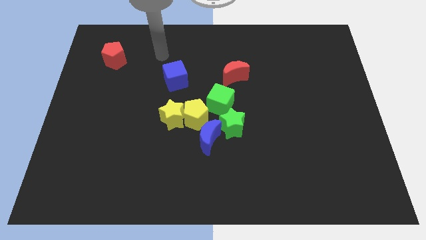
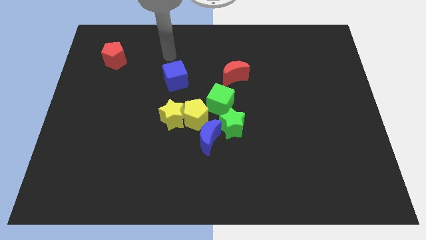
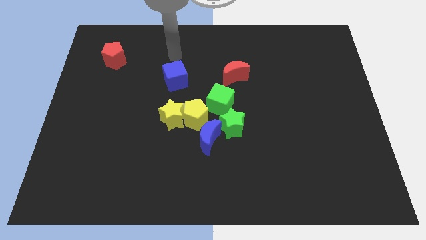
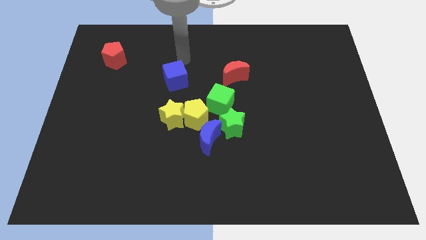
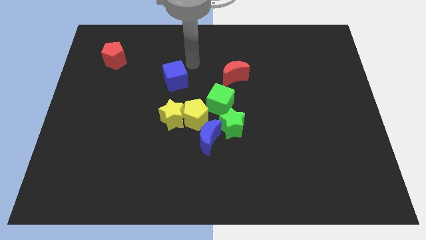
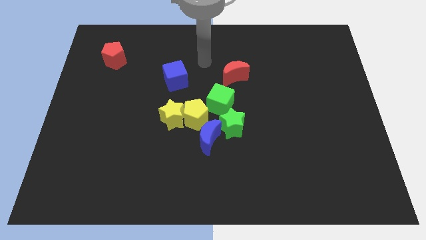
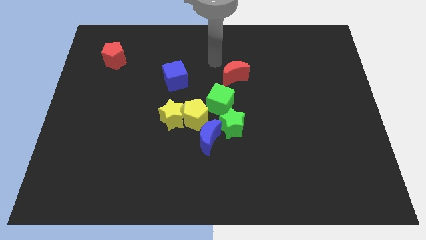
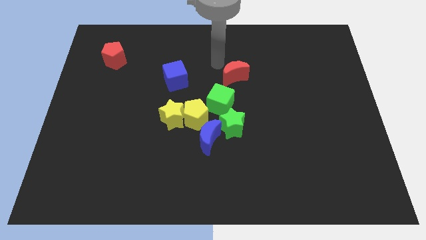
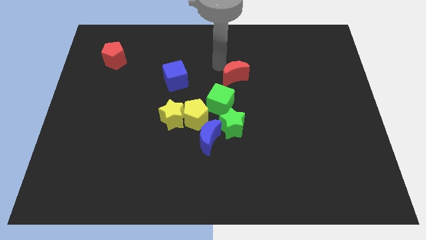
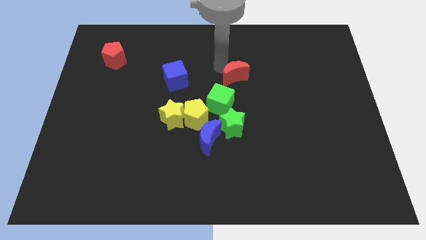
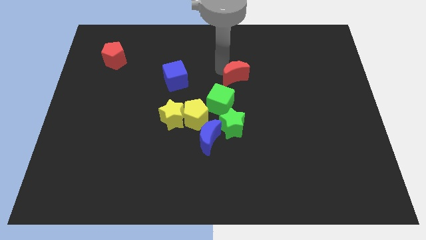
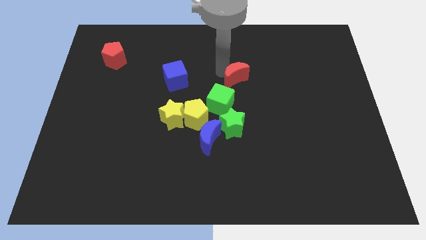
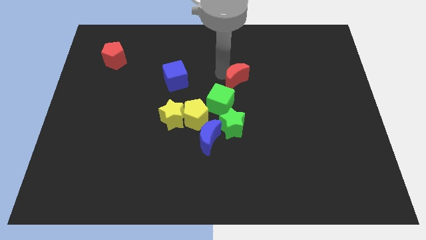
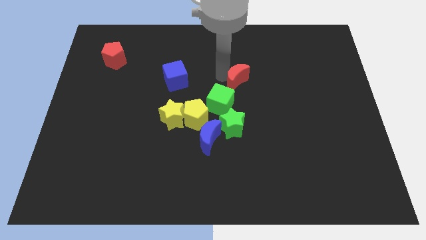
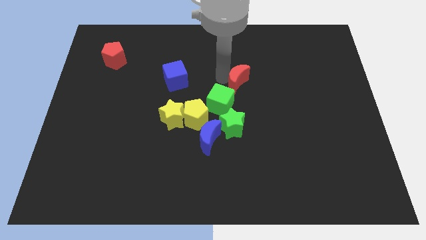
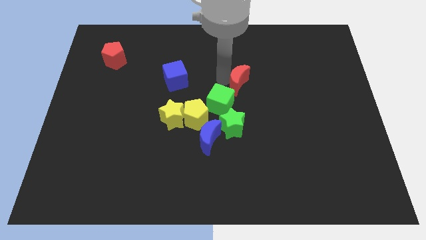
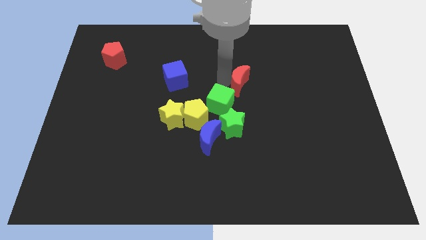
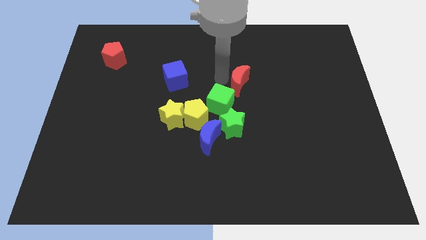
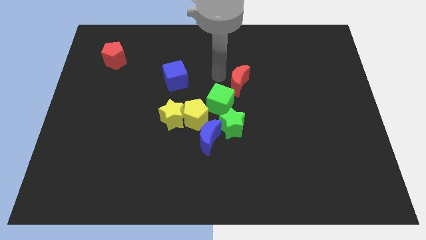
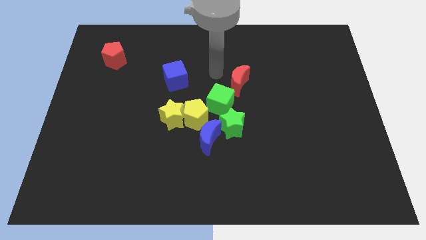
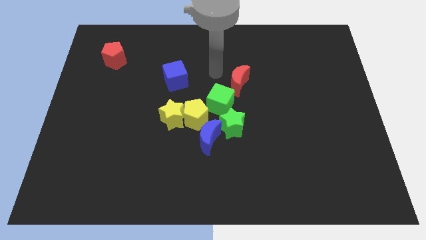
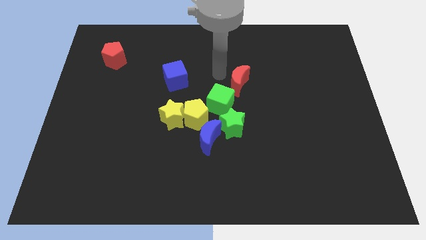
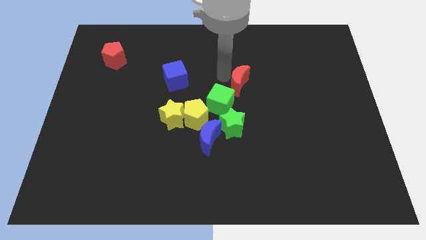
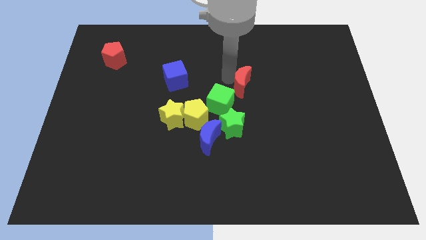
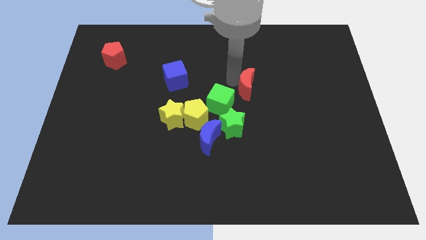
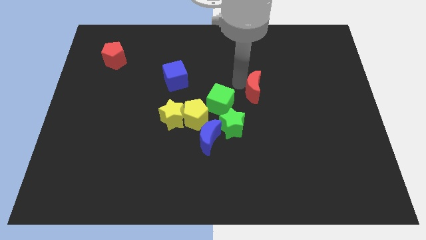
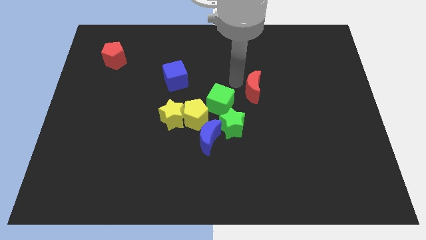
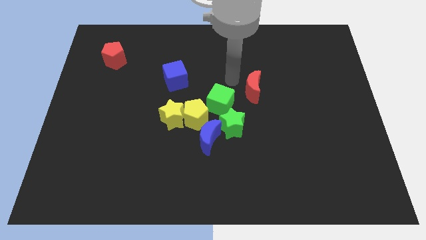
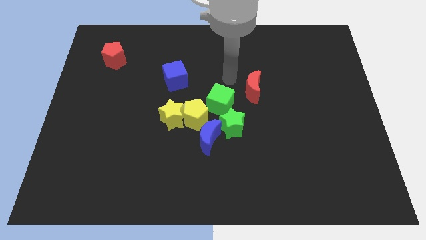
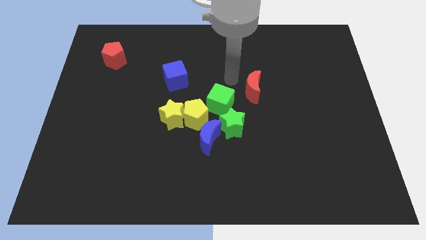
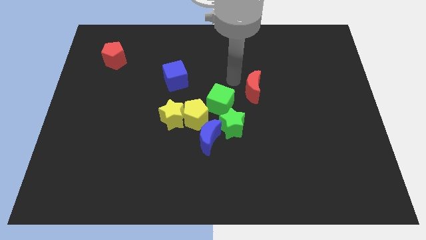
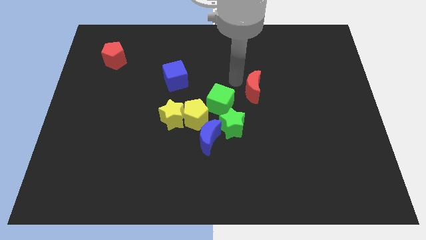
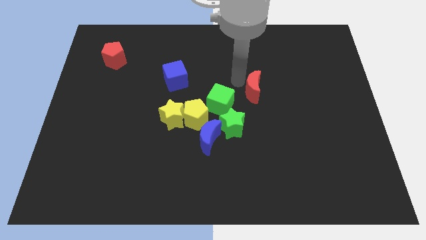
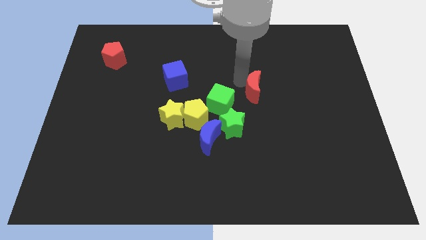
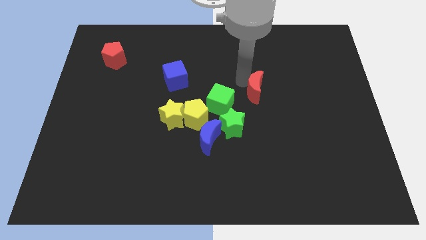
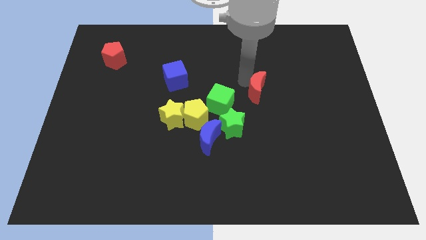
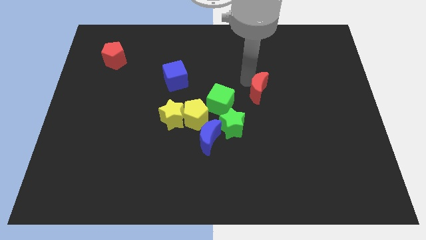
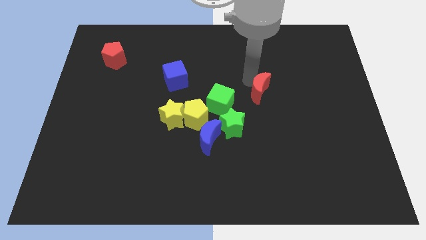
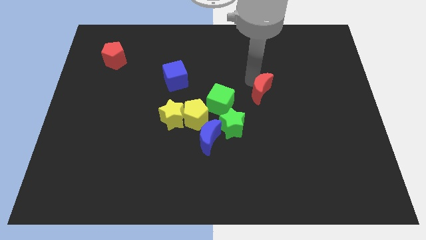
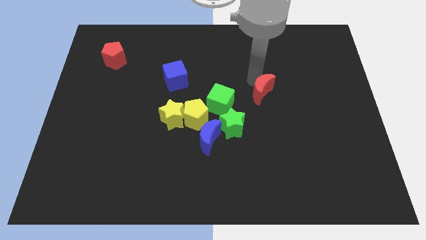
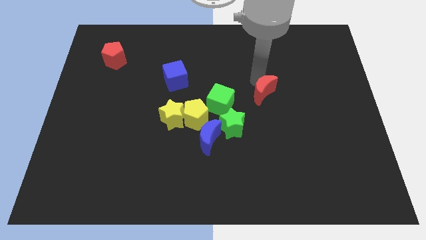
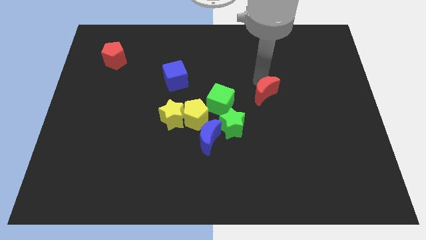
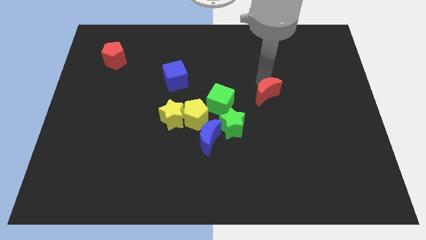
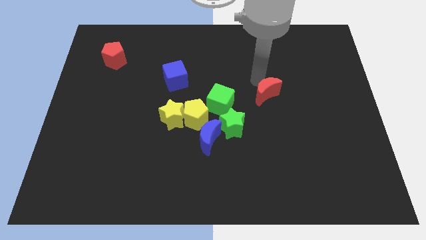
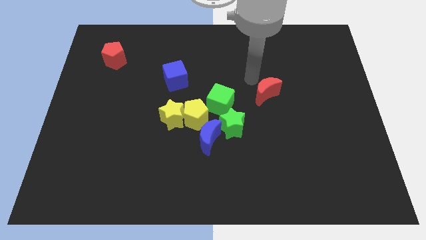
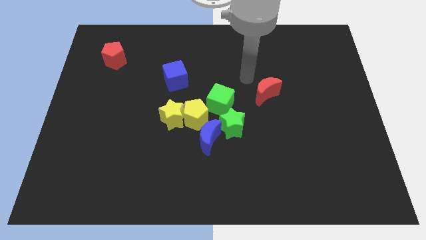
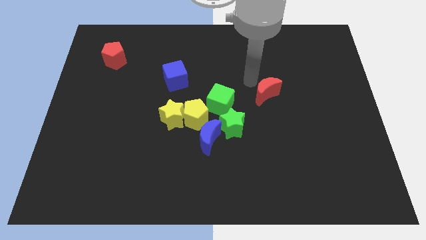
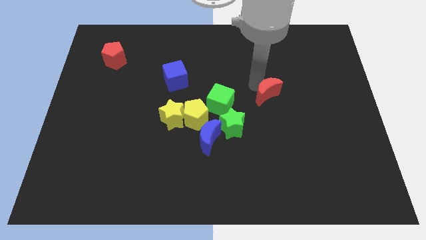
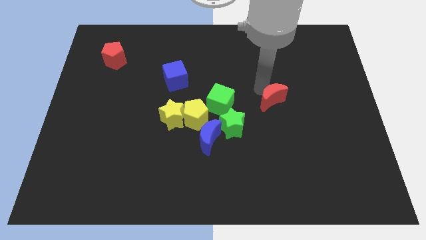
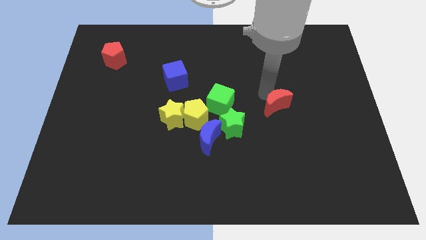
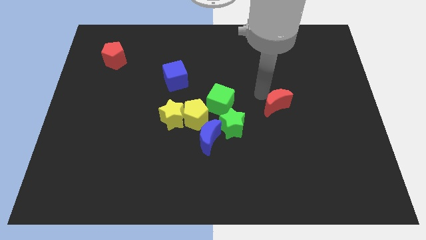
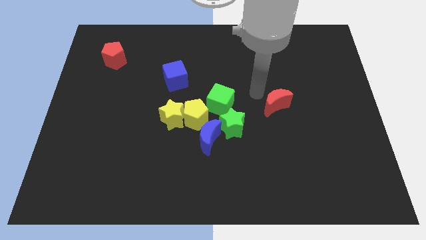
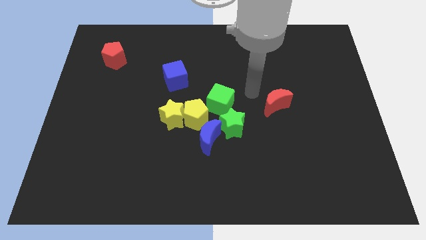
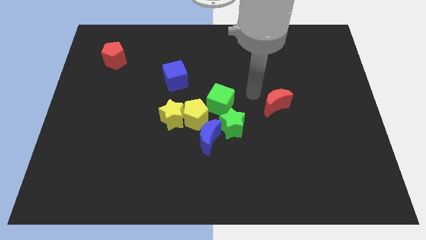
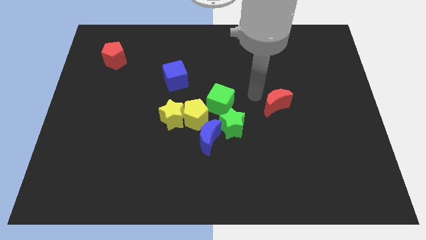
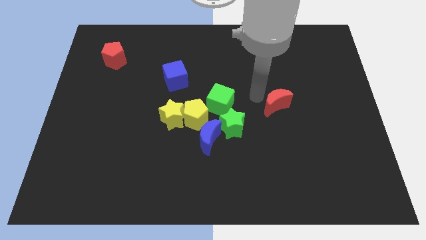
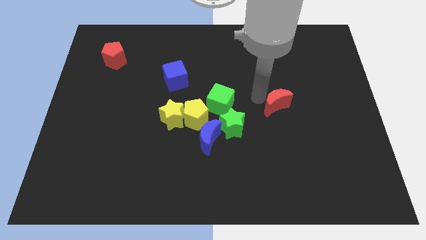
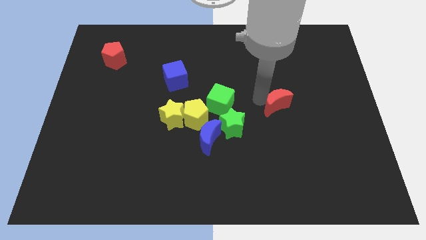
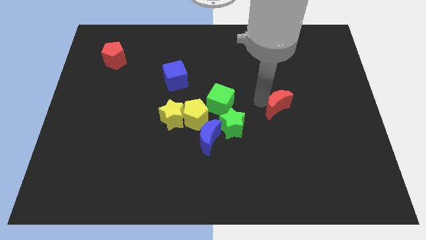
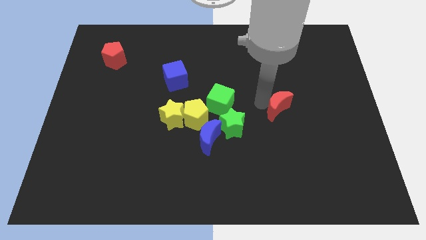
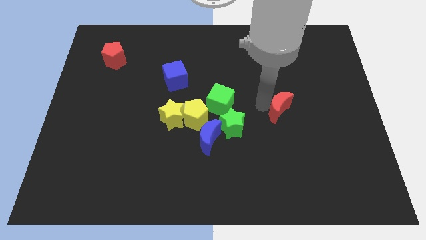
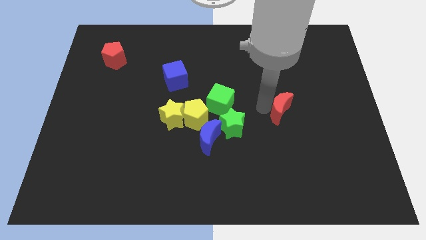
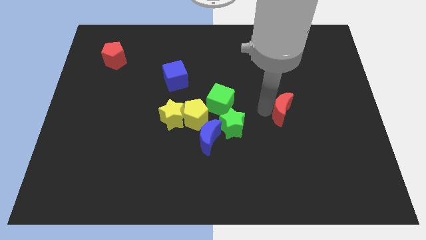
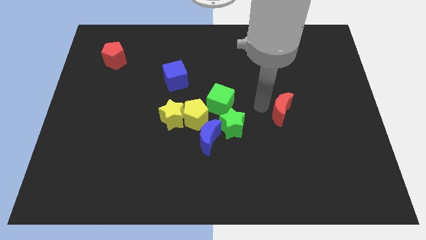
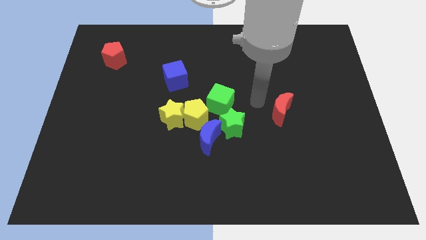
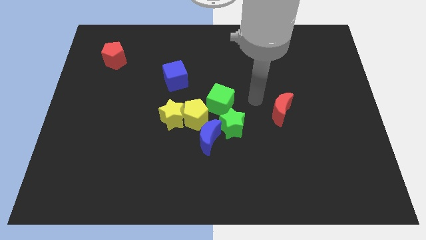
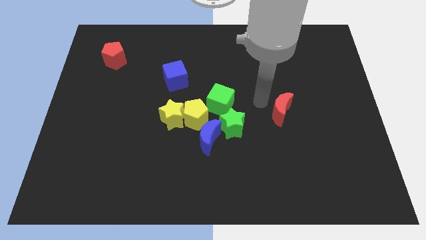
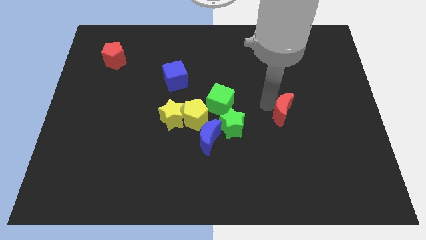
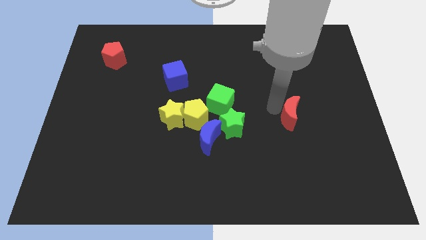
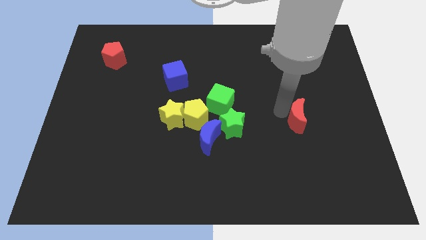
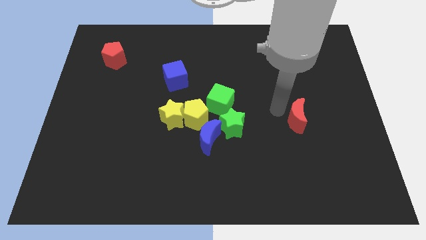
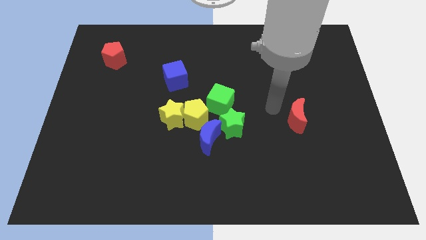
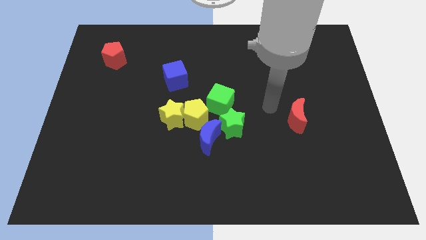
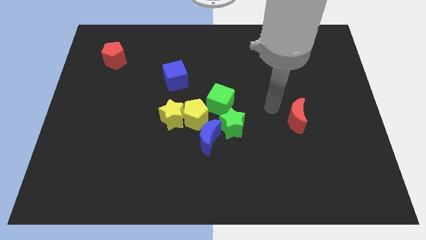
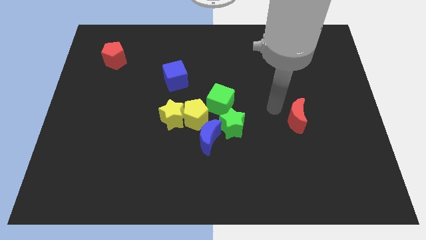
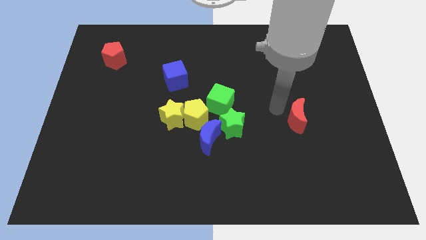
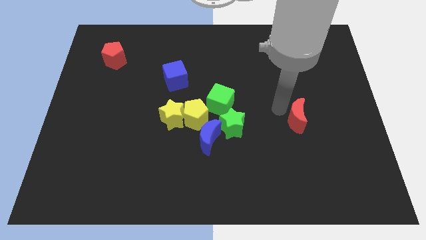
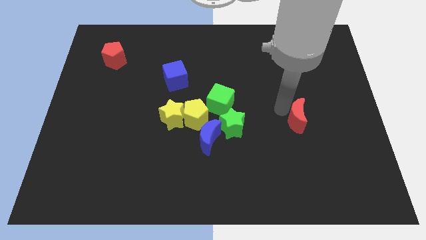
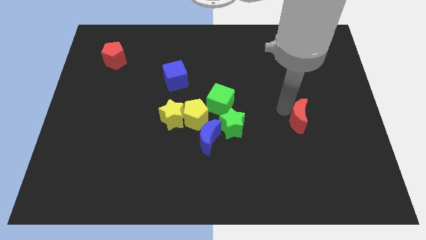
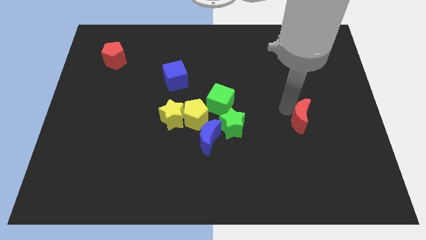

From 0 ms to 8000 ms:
slide the red moon downwards and right diagonally

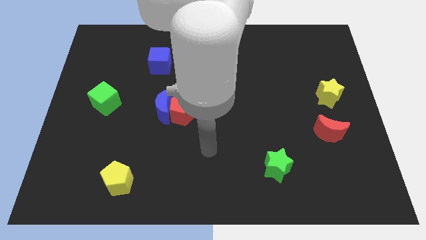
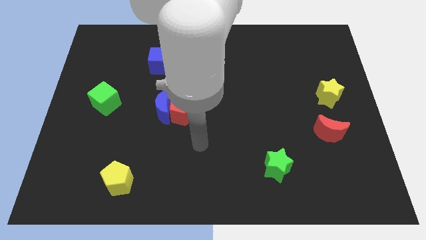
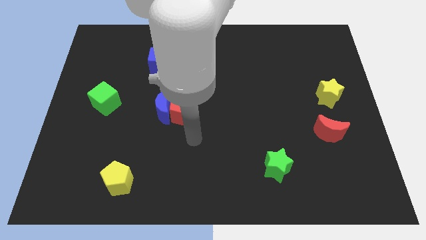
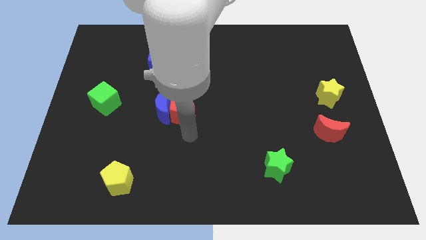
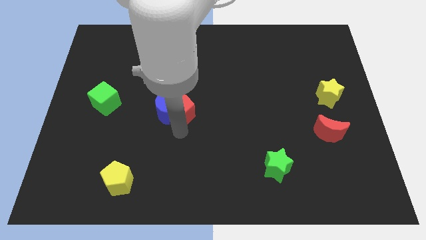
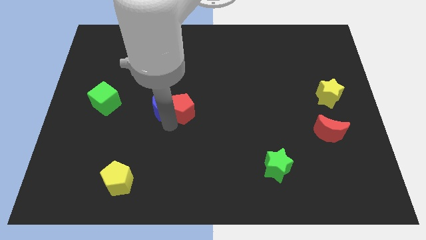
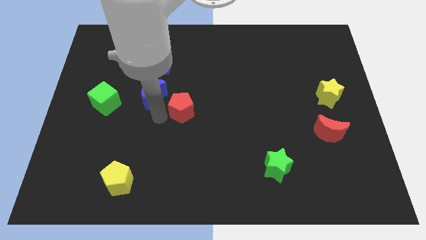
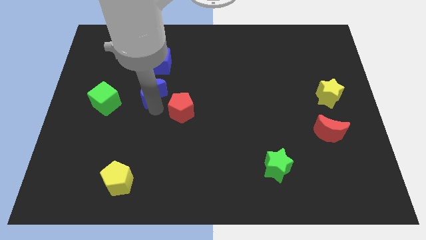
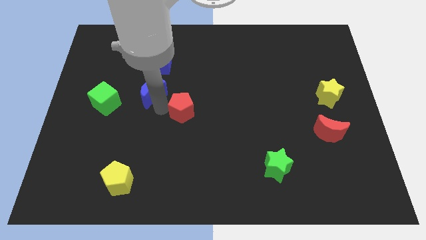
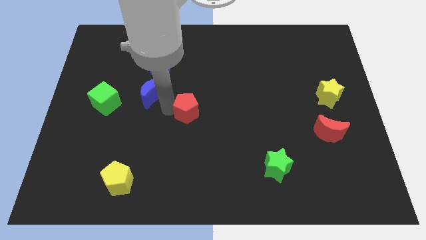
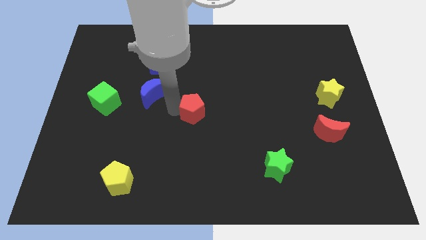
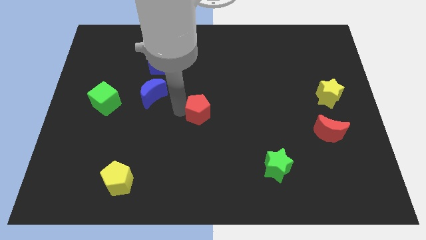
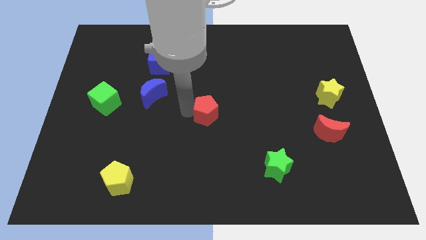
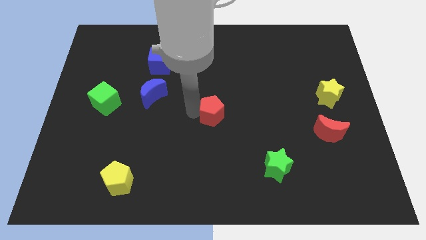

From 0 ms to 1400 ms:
slightly push the red pentagon right
